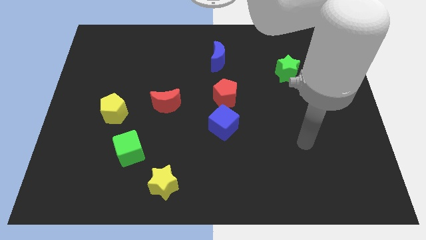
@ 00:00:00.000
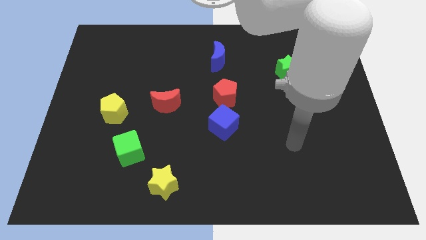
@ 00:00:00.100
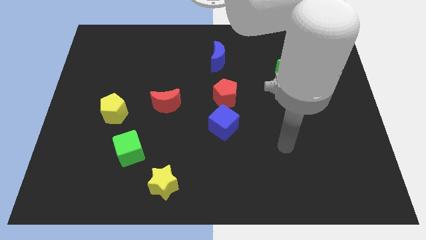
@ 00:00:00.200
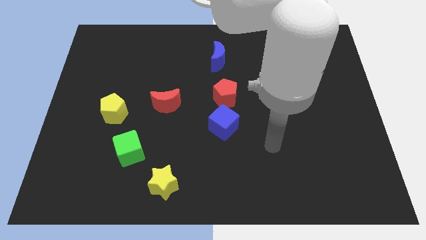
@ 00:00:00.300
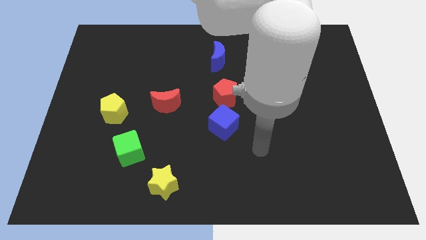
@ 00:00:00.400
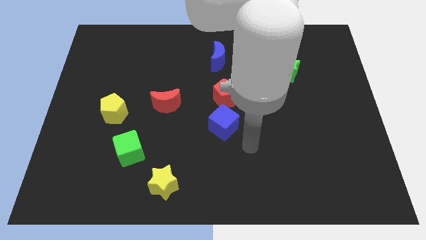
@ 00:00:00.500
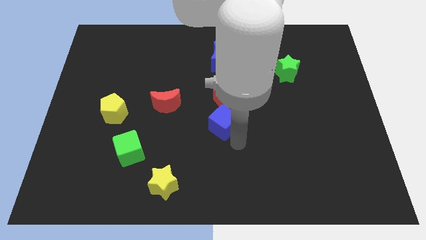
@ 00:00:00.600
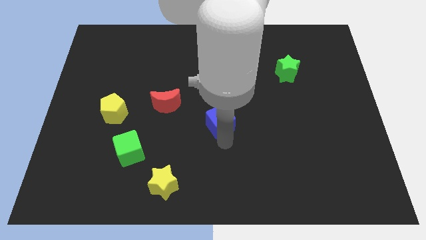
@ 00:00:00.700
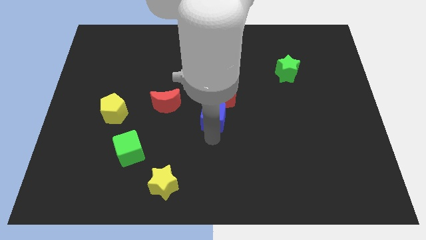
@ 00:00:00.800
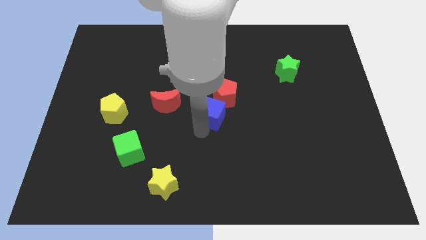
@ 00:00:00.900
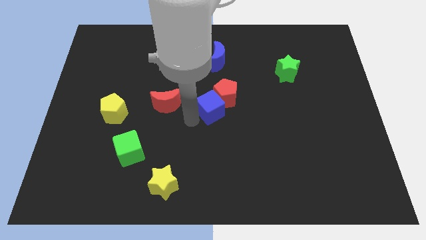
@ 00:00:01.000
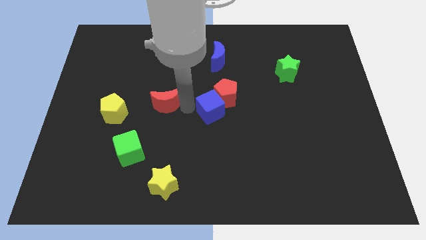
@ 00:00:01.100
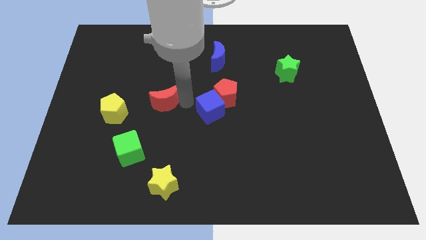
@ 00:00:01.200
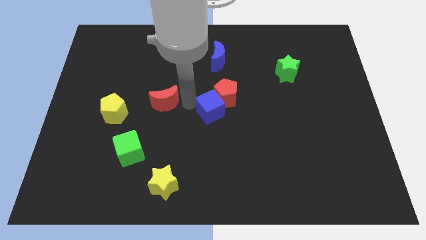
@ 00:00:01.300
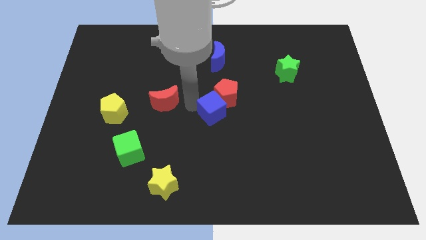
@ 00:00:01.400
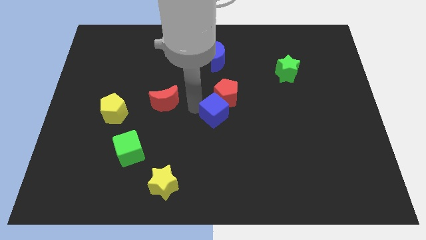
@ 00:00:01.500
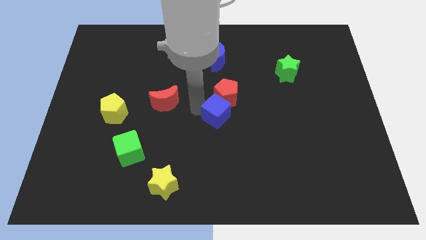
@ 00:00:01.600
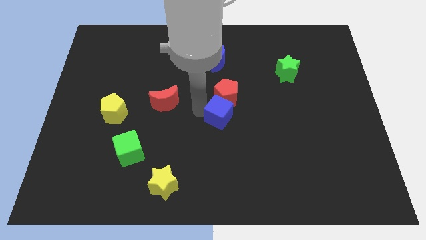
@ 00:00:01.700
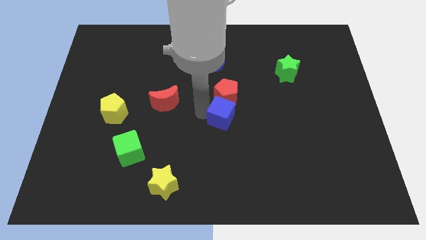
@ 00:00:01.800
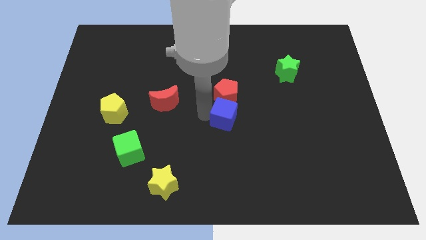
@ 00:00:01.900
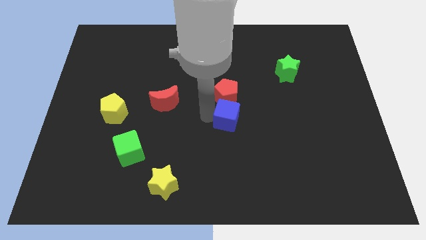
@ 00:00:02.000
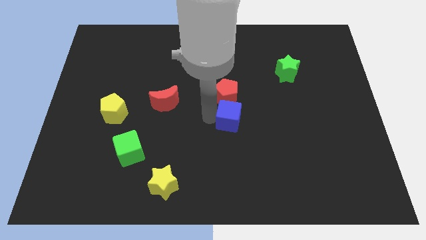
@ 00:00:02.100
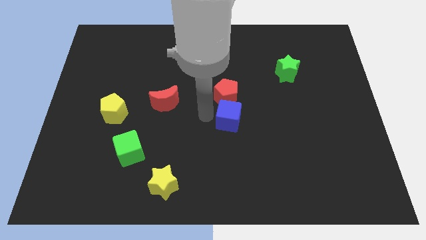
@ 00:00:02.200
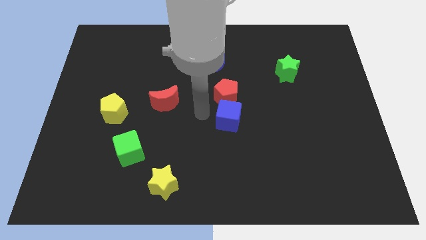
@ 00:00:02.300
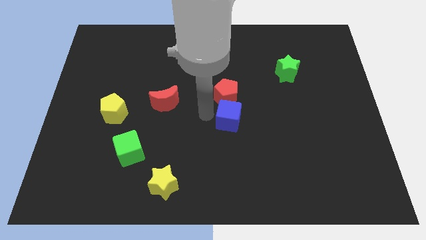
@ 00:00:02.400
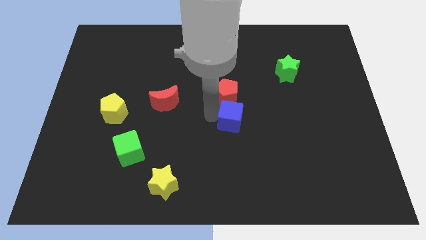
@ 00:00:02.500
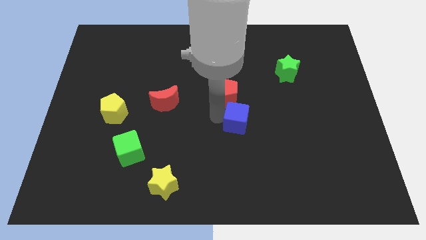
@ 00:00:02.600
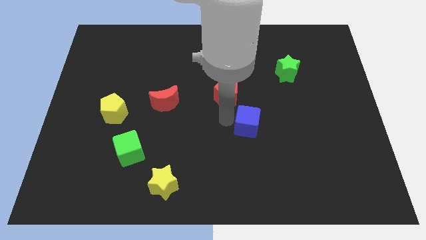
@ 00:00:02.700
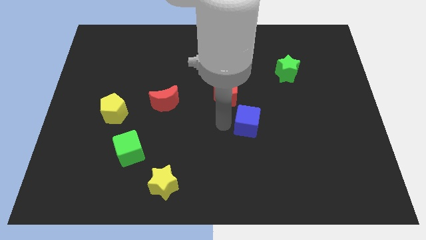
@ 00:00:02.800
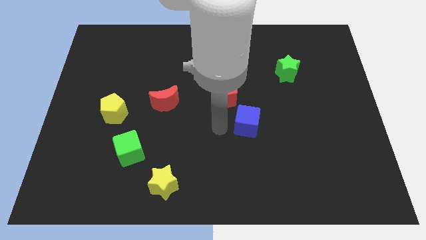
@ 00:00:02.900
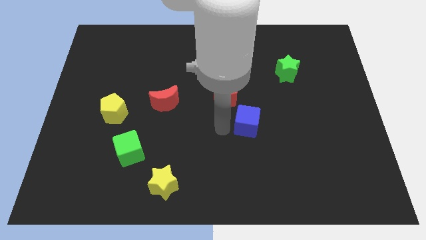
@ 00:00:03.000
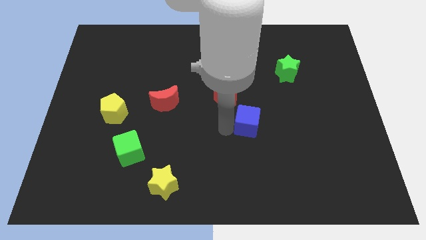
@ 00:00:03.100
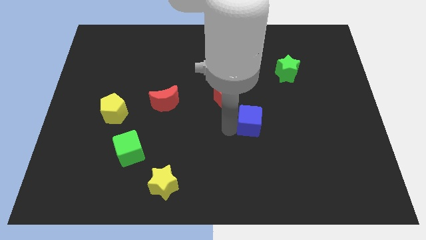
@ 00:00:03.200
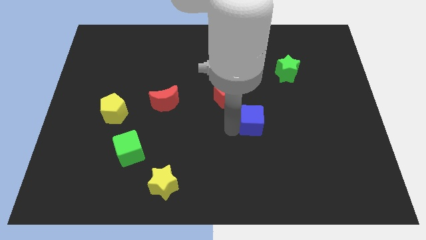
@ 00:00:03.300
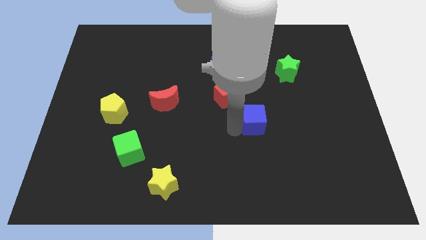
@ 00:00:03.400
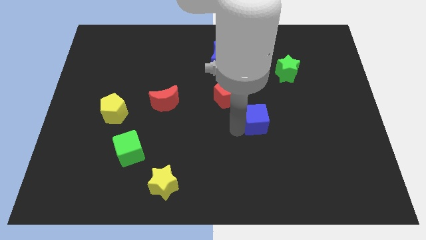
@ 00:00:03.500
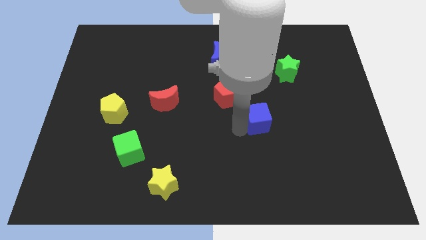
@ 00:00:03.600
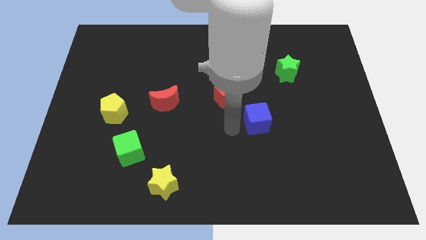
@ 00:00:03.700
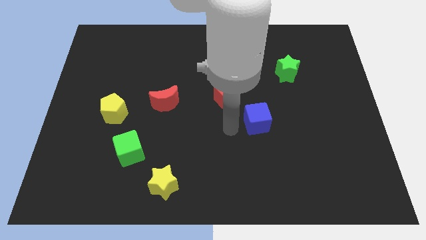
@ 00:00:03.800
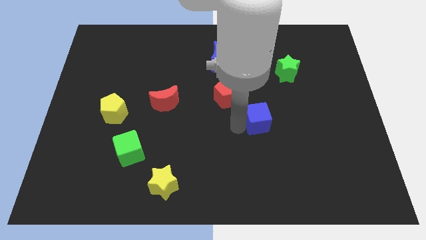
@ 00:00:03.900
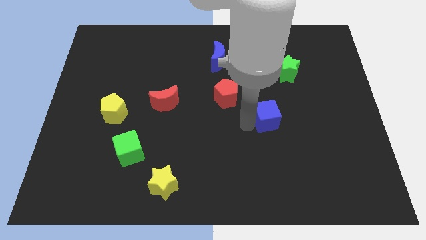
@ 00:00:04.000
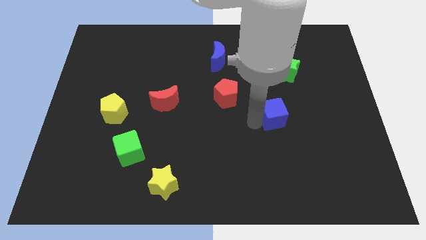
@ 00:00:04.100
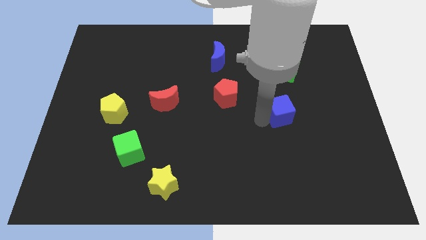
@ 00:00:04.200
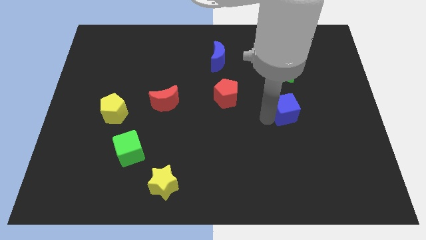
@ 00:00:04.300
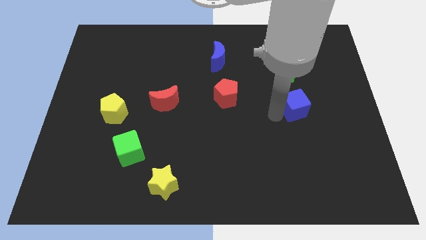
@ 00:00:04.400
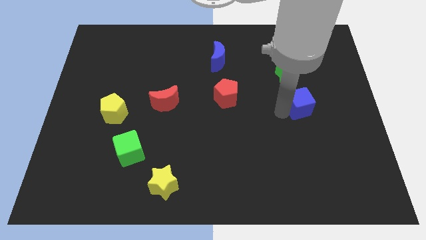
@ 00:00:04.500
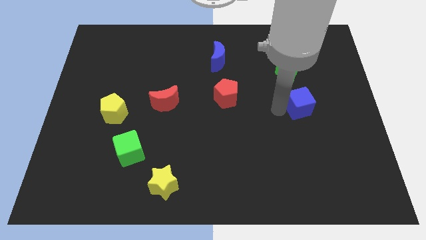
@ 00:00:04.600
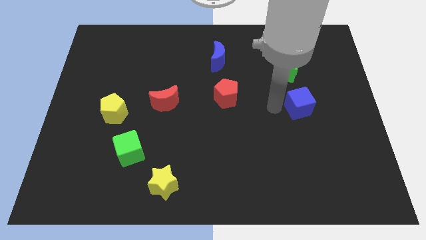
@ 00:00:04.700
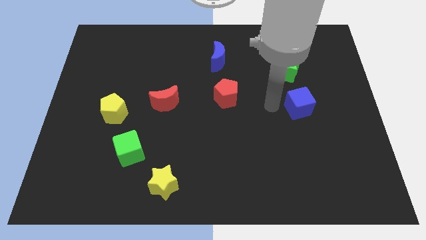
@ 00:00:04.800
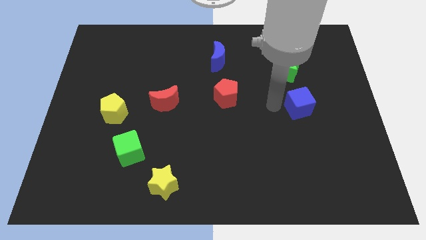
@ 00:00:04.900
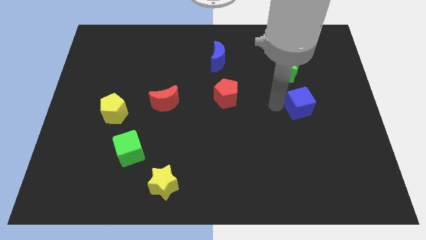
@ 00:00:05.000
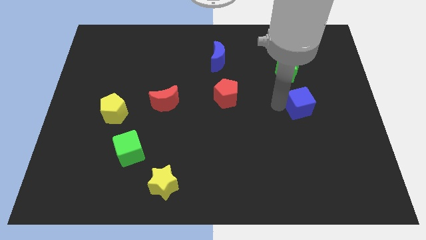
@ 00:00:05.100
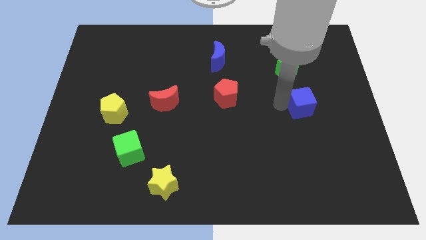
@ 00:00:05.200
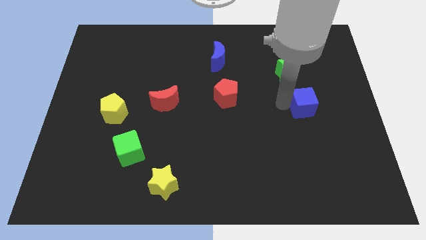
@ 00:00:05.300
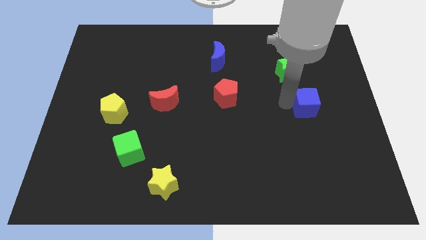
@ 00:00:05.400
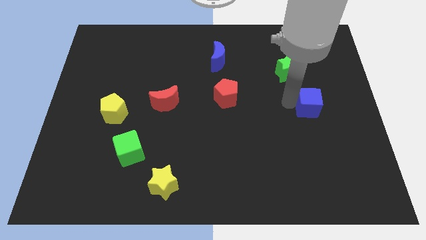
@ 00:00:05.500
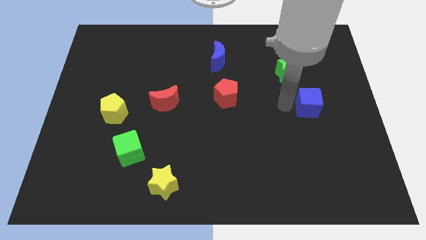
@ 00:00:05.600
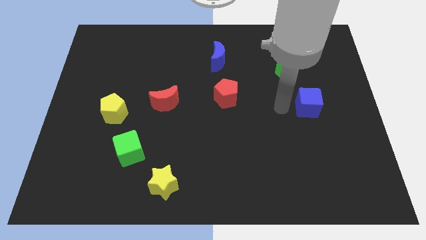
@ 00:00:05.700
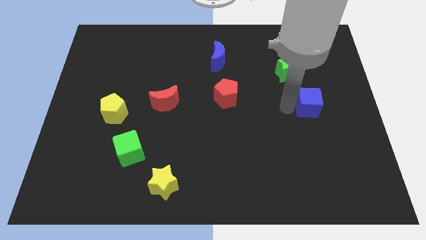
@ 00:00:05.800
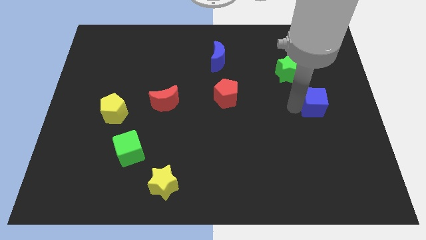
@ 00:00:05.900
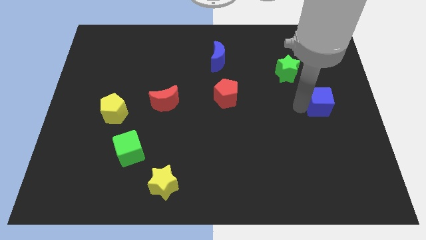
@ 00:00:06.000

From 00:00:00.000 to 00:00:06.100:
push the blue cube to the right side of the board
